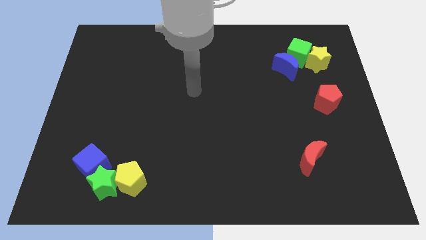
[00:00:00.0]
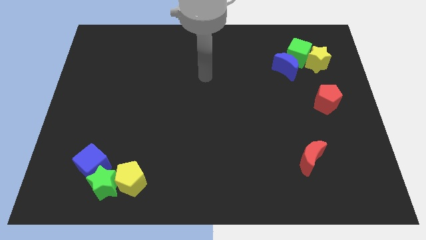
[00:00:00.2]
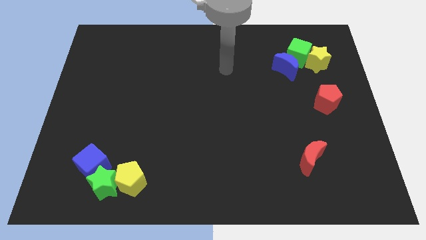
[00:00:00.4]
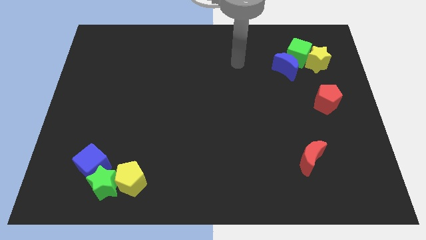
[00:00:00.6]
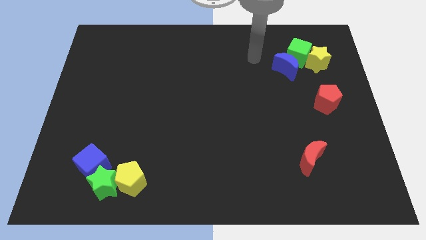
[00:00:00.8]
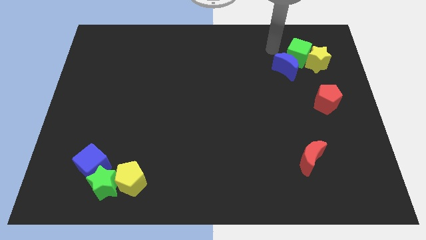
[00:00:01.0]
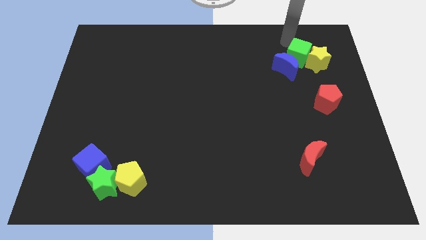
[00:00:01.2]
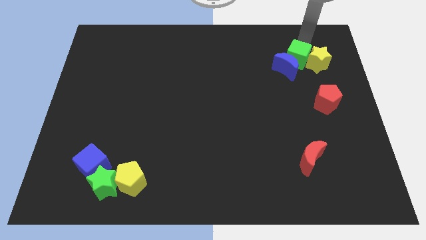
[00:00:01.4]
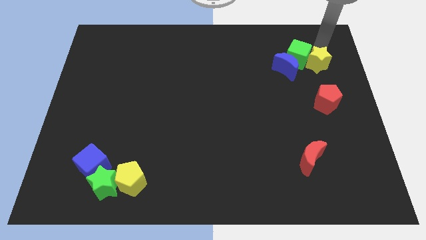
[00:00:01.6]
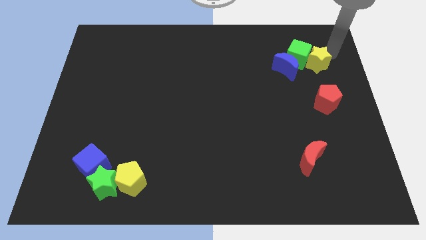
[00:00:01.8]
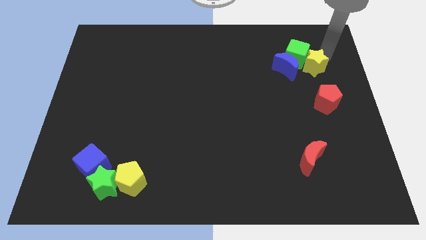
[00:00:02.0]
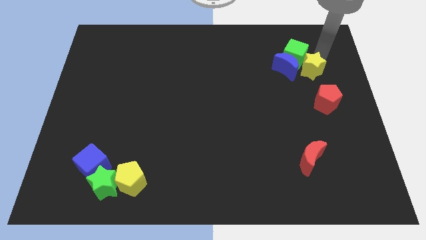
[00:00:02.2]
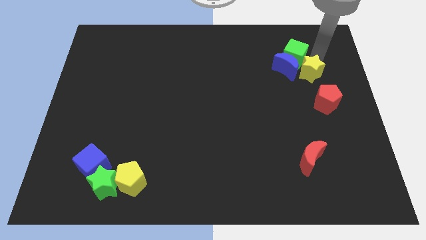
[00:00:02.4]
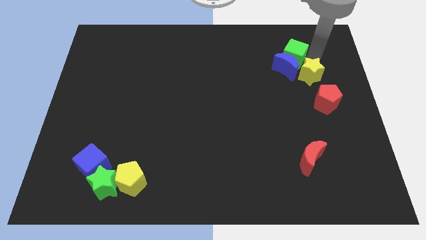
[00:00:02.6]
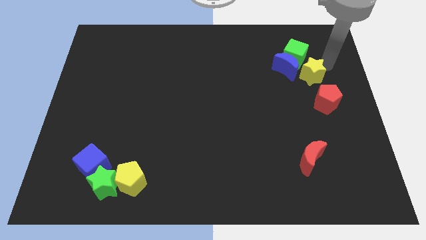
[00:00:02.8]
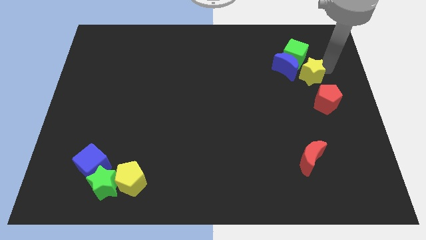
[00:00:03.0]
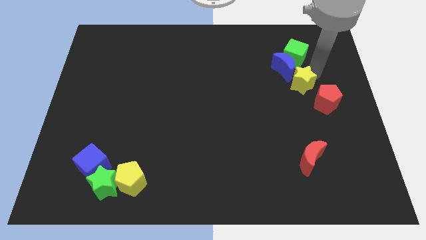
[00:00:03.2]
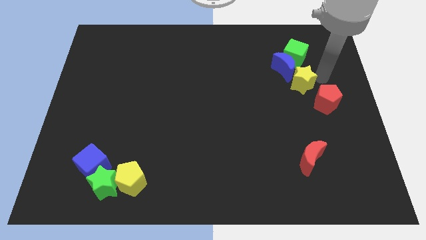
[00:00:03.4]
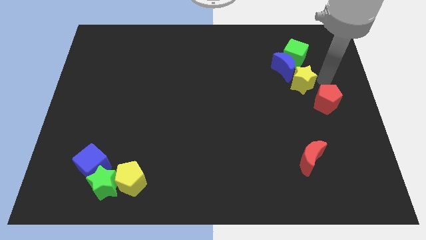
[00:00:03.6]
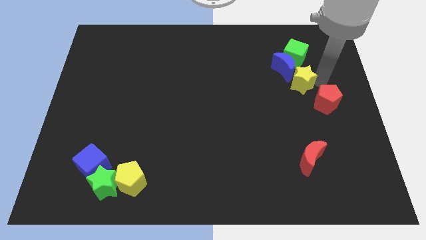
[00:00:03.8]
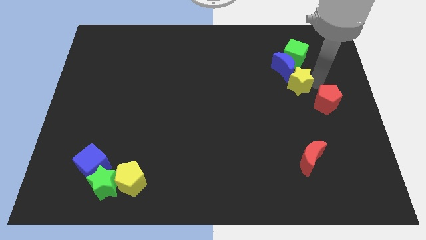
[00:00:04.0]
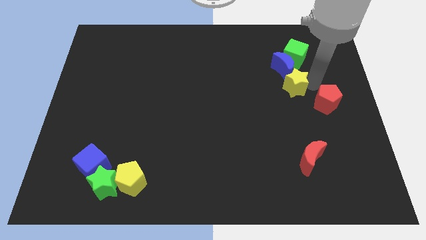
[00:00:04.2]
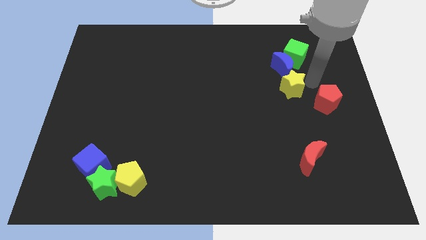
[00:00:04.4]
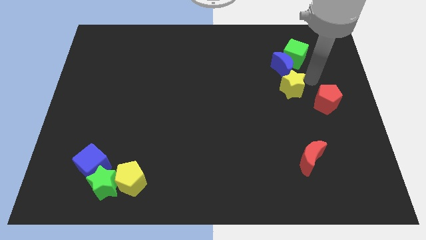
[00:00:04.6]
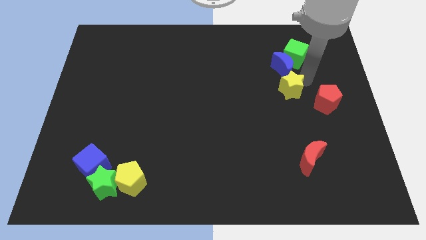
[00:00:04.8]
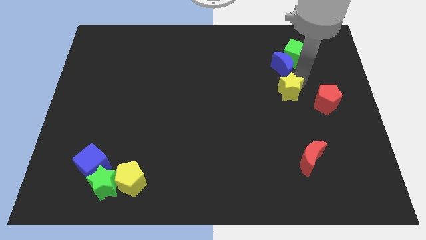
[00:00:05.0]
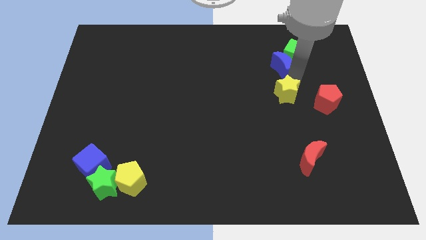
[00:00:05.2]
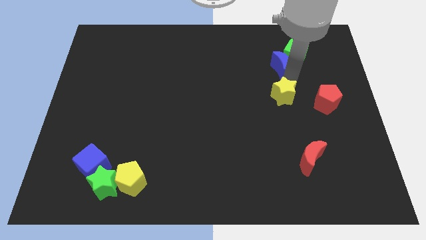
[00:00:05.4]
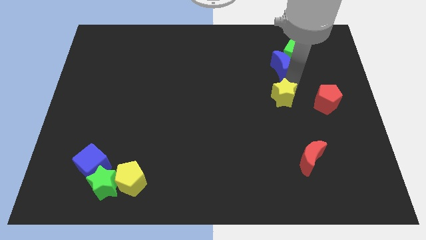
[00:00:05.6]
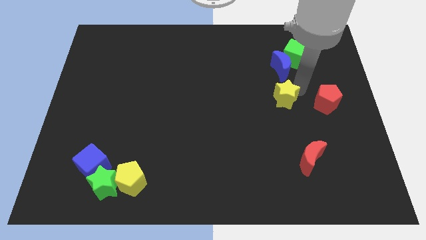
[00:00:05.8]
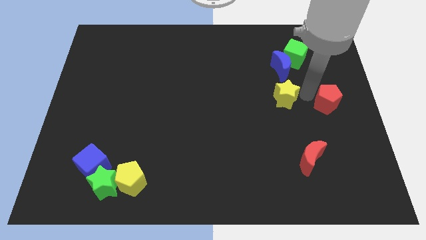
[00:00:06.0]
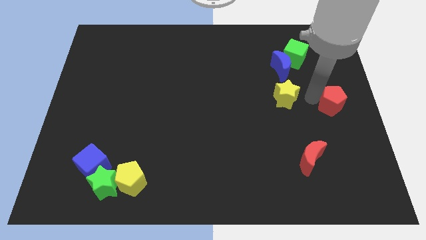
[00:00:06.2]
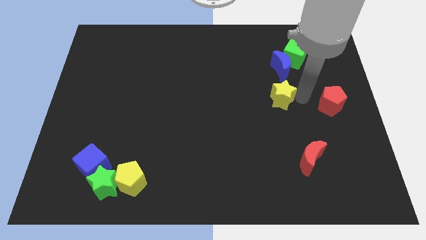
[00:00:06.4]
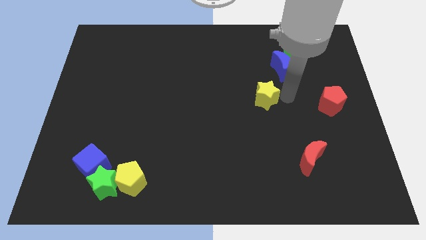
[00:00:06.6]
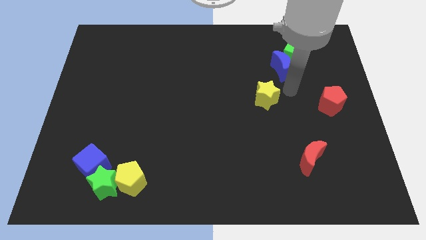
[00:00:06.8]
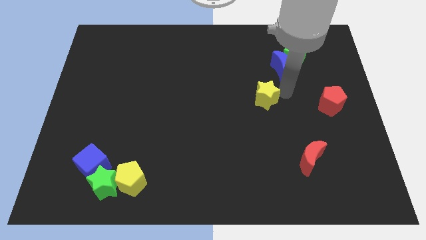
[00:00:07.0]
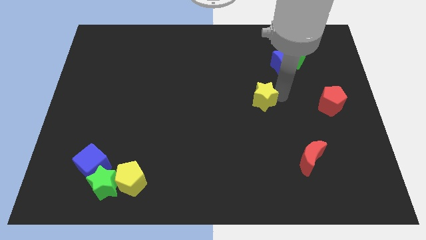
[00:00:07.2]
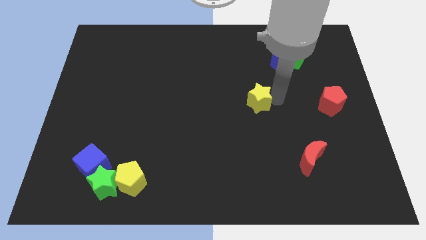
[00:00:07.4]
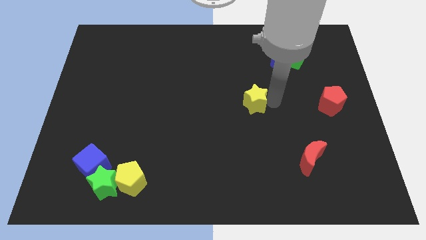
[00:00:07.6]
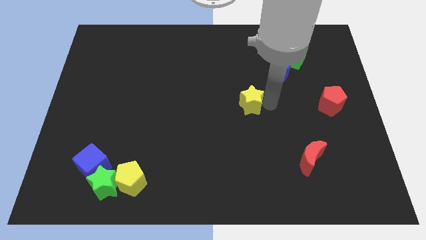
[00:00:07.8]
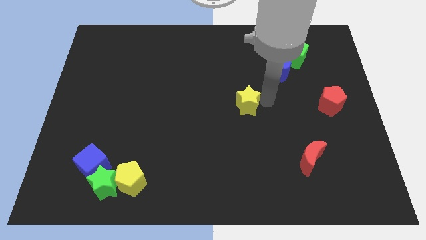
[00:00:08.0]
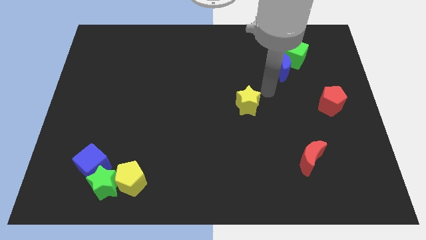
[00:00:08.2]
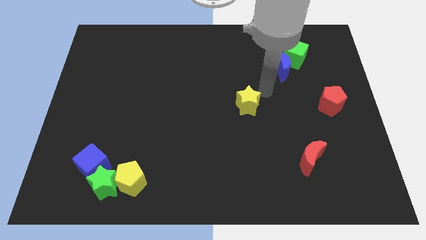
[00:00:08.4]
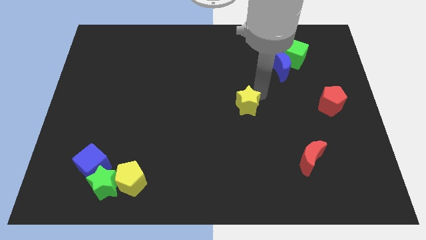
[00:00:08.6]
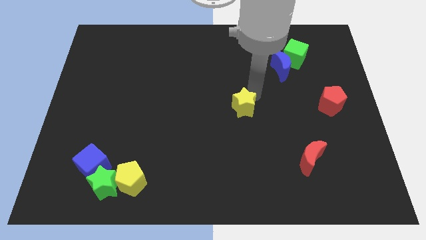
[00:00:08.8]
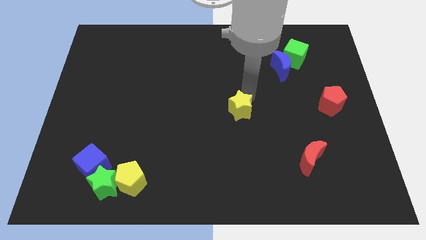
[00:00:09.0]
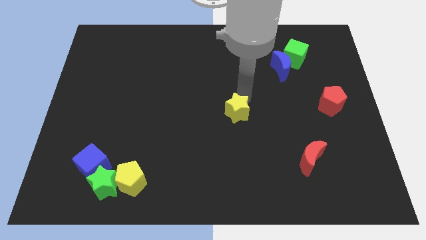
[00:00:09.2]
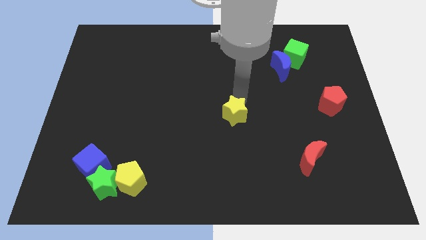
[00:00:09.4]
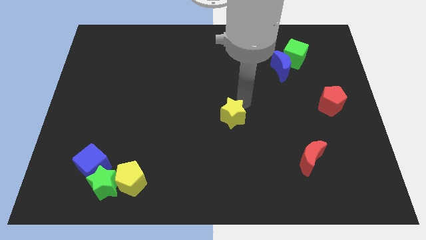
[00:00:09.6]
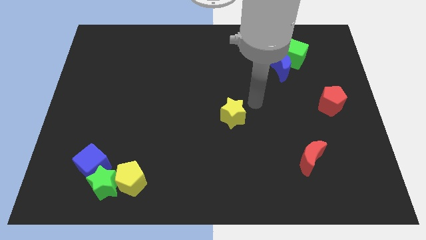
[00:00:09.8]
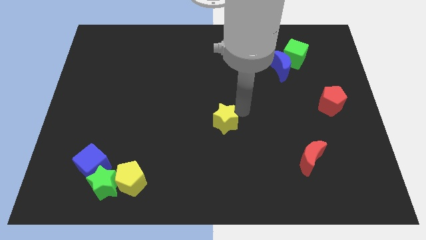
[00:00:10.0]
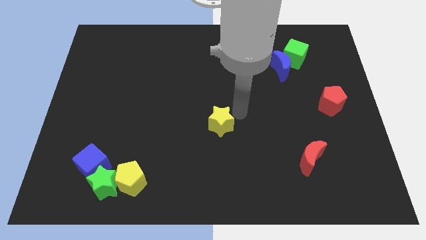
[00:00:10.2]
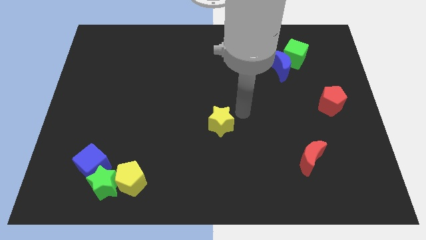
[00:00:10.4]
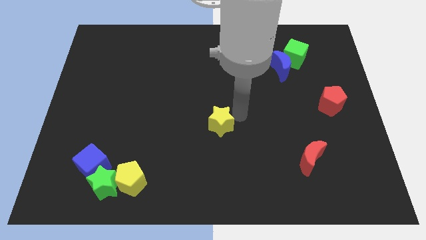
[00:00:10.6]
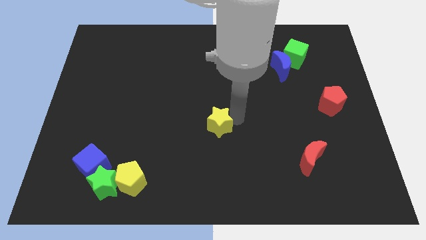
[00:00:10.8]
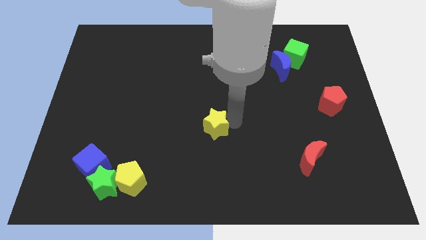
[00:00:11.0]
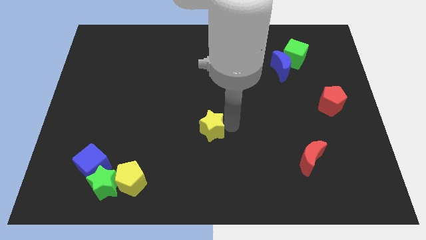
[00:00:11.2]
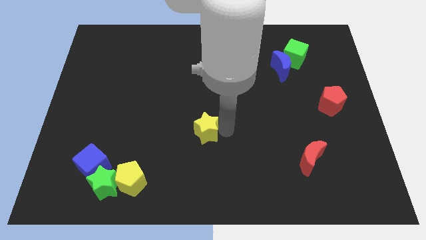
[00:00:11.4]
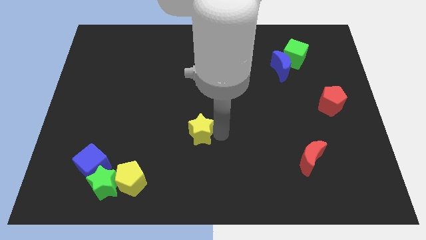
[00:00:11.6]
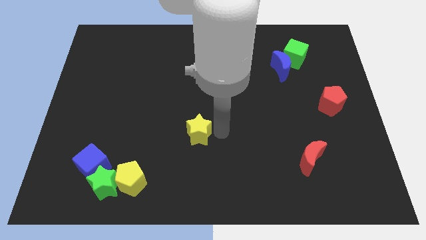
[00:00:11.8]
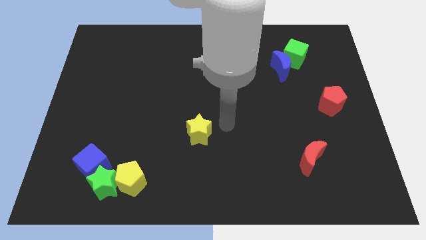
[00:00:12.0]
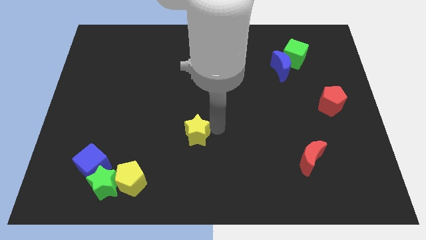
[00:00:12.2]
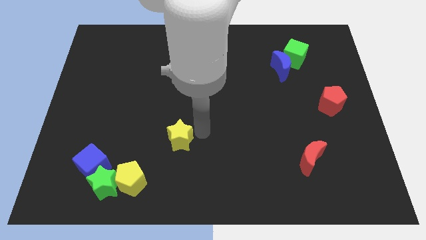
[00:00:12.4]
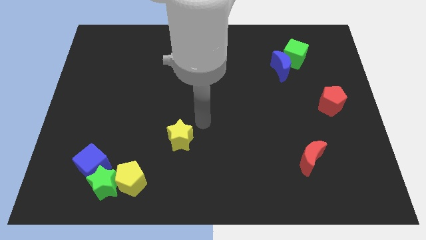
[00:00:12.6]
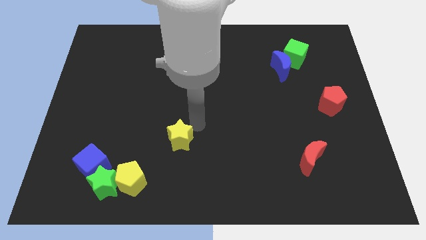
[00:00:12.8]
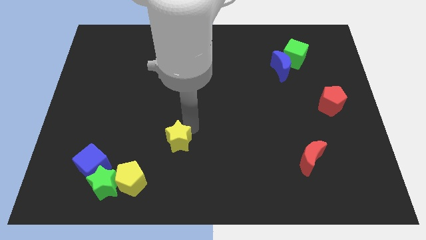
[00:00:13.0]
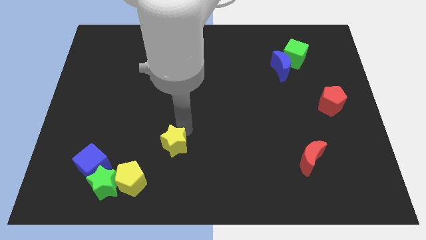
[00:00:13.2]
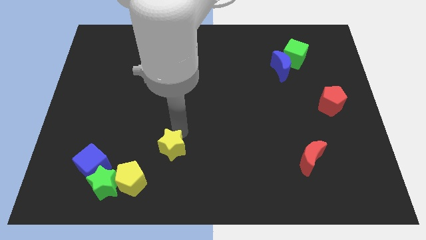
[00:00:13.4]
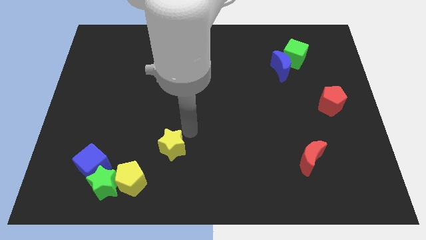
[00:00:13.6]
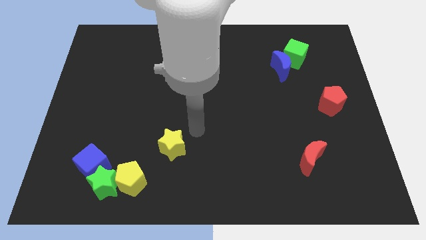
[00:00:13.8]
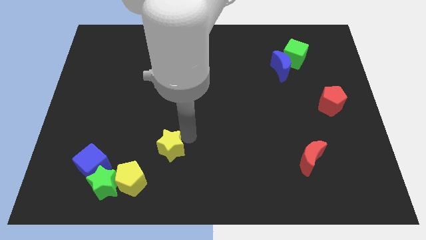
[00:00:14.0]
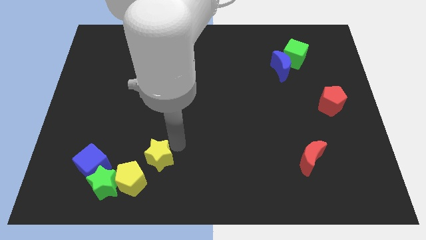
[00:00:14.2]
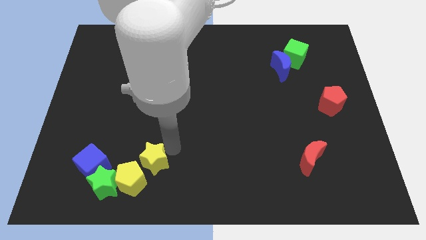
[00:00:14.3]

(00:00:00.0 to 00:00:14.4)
put the yellow star next to the yellow pentagon
